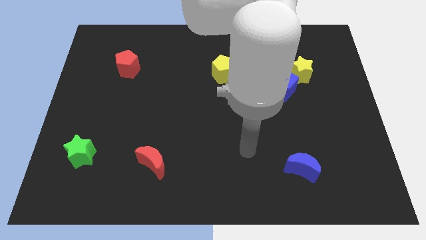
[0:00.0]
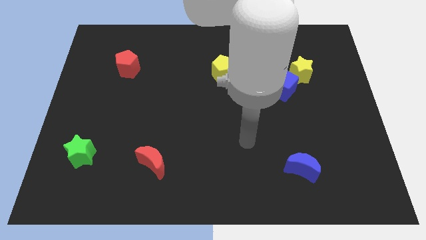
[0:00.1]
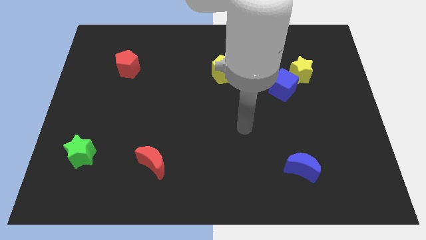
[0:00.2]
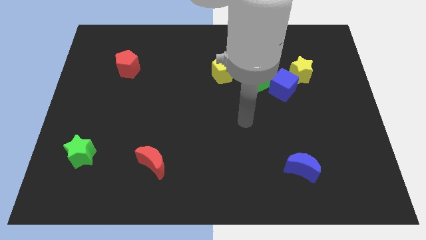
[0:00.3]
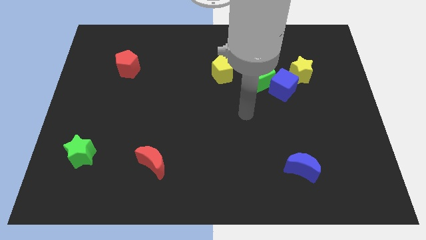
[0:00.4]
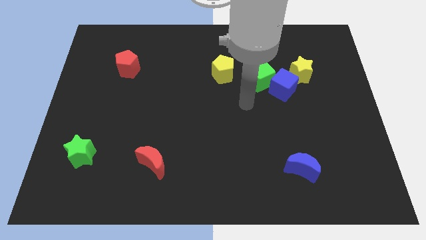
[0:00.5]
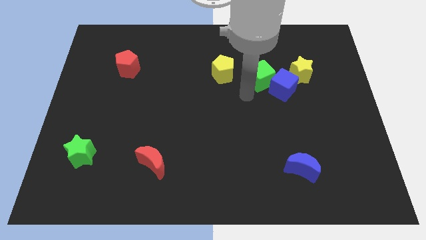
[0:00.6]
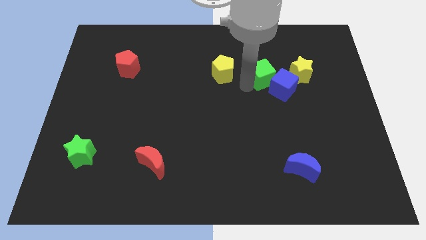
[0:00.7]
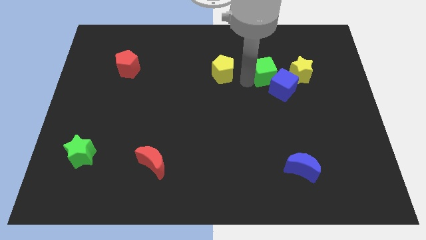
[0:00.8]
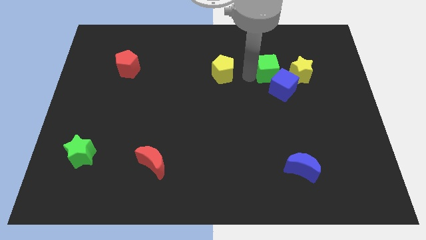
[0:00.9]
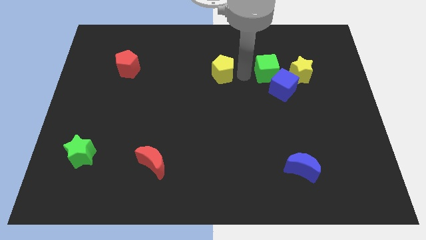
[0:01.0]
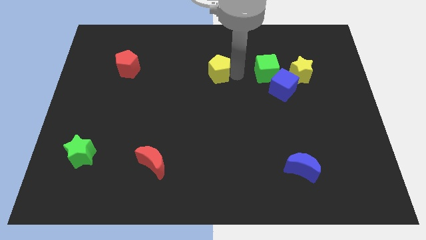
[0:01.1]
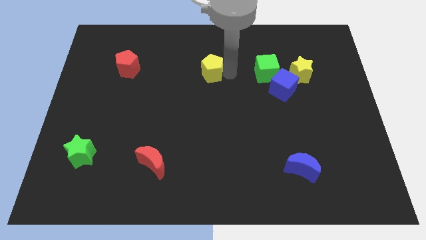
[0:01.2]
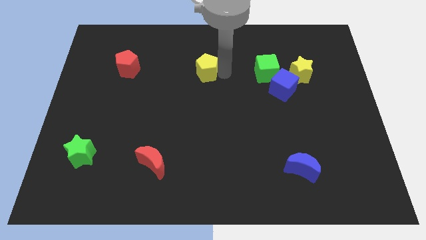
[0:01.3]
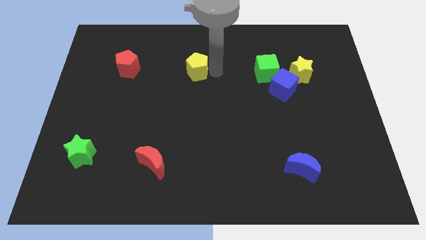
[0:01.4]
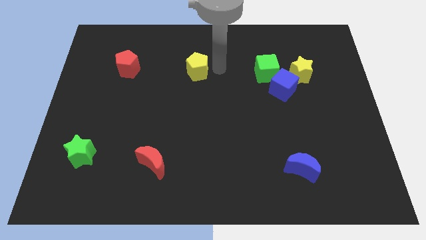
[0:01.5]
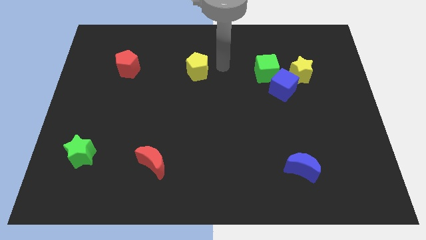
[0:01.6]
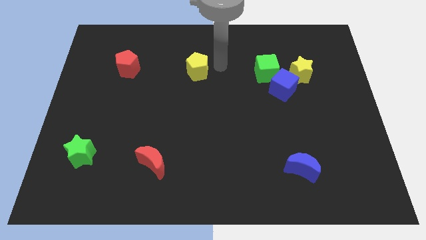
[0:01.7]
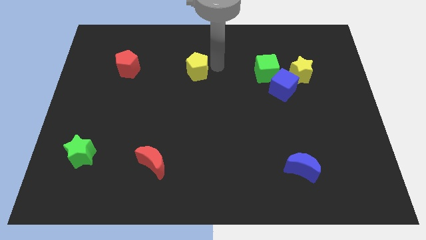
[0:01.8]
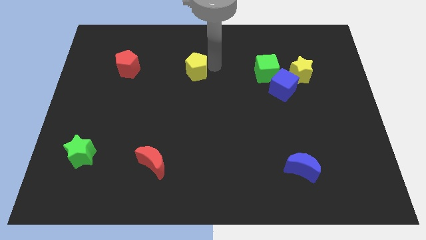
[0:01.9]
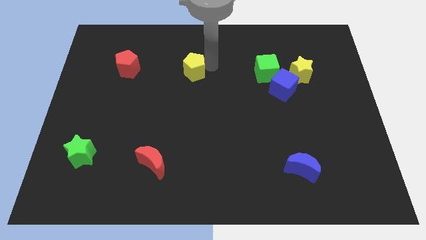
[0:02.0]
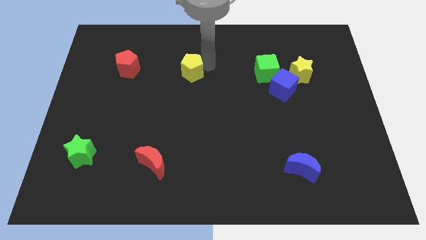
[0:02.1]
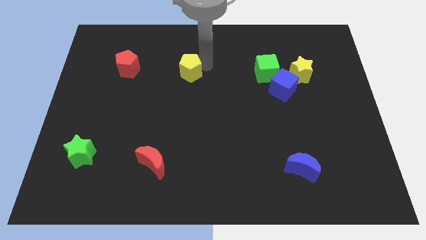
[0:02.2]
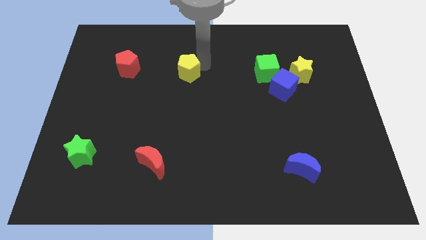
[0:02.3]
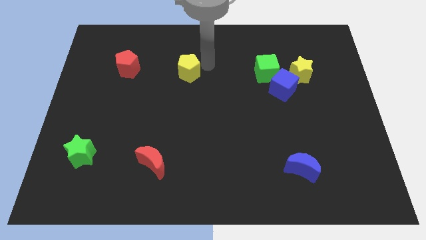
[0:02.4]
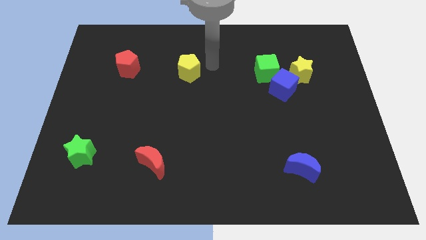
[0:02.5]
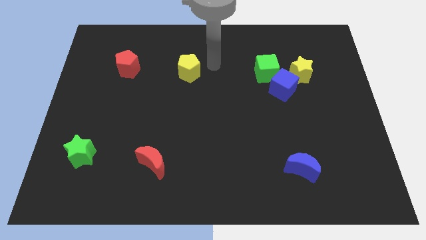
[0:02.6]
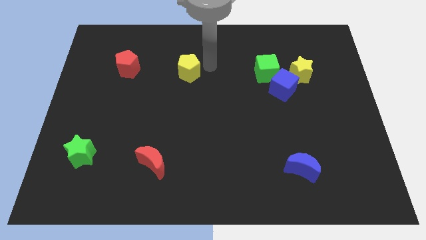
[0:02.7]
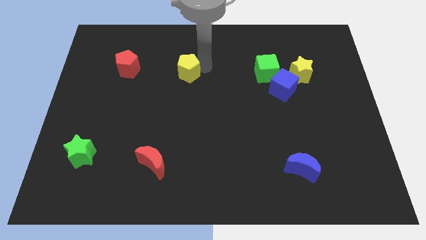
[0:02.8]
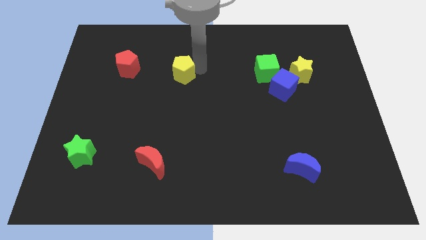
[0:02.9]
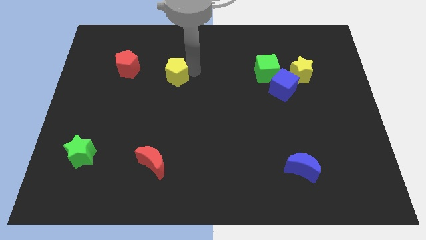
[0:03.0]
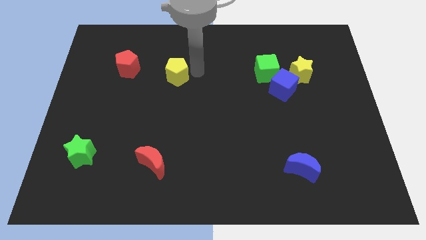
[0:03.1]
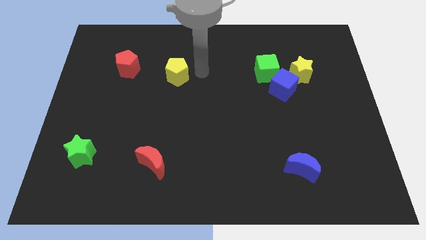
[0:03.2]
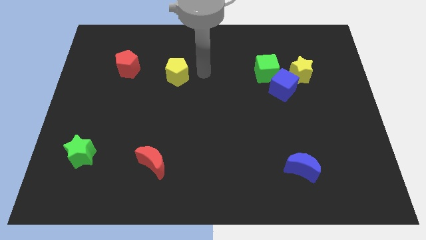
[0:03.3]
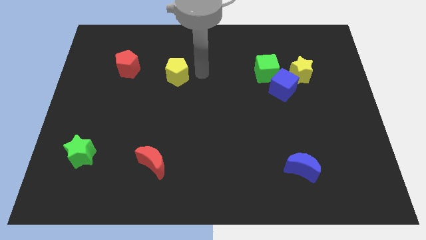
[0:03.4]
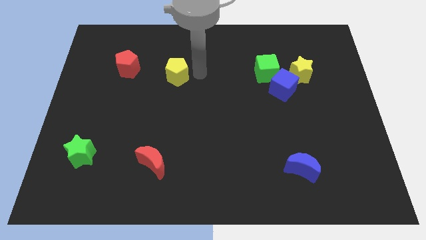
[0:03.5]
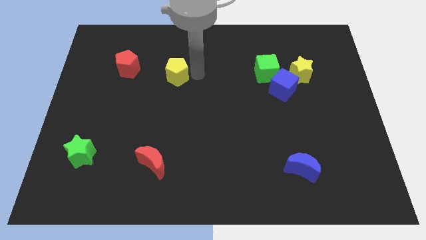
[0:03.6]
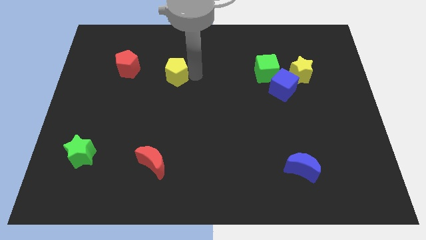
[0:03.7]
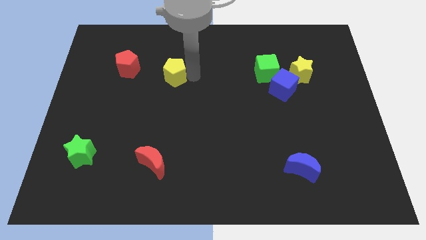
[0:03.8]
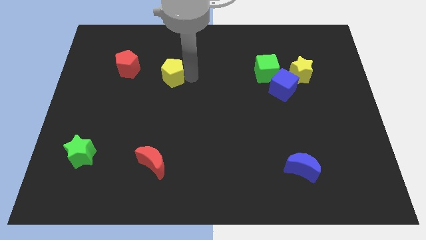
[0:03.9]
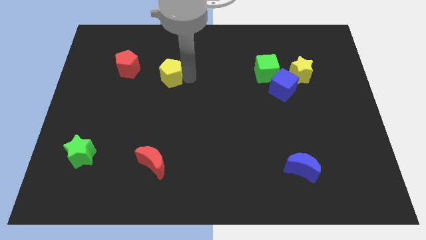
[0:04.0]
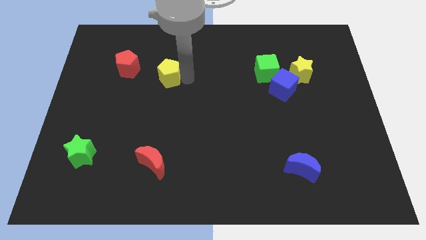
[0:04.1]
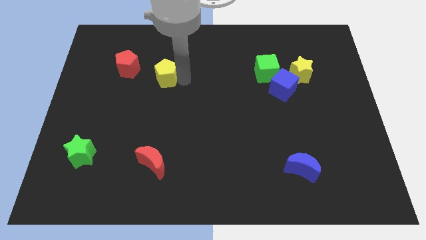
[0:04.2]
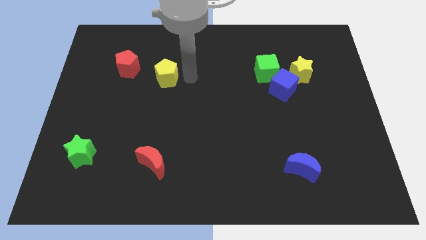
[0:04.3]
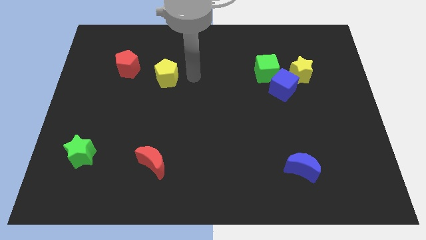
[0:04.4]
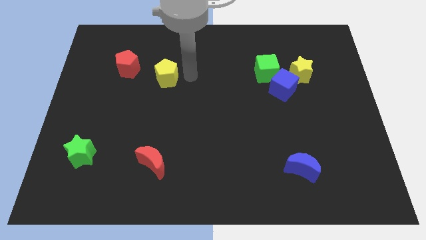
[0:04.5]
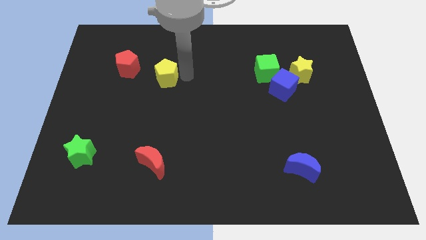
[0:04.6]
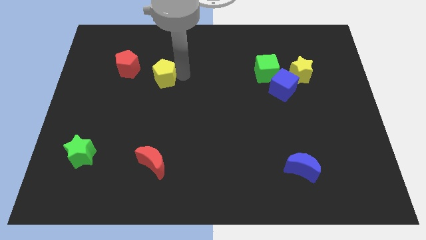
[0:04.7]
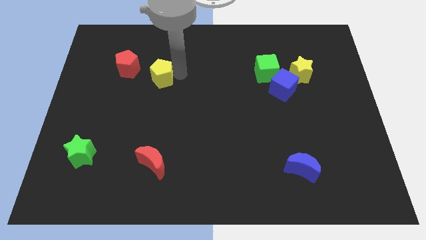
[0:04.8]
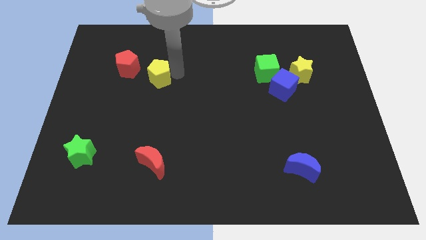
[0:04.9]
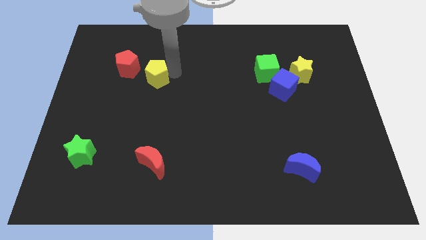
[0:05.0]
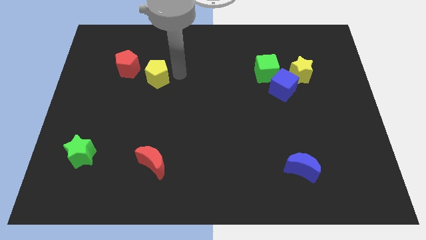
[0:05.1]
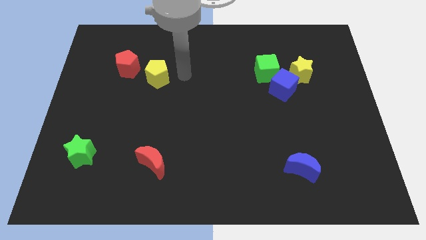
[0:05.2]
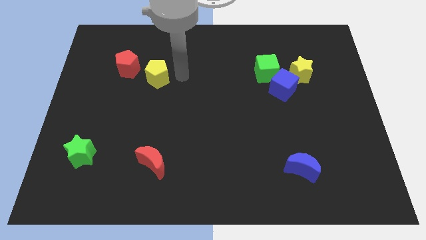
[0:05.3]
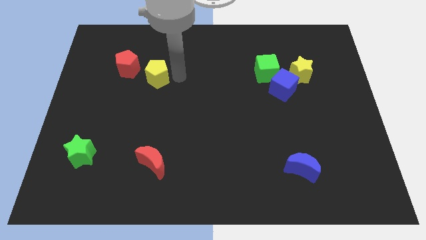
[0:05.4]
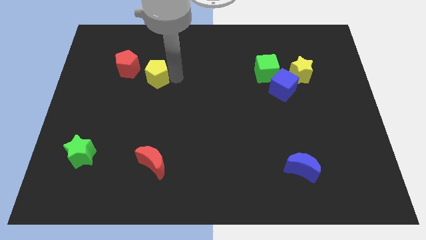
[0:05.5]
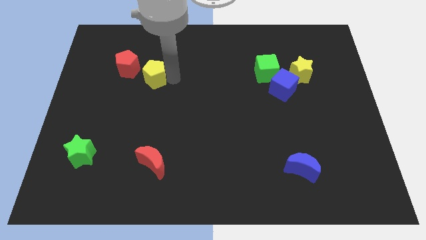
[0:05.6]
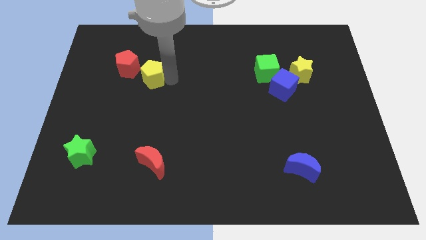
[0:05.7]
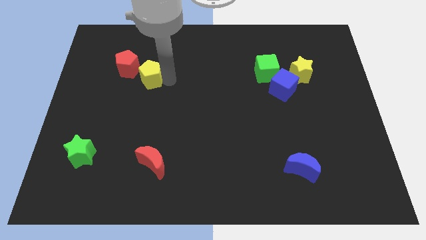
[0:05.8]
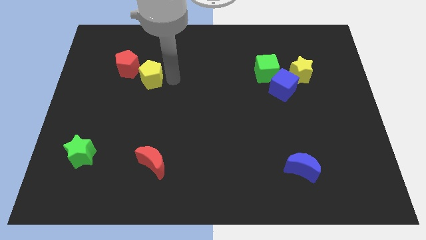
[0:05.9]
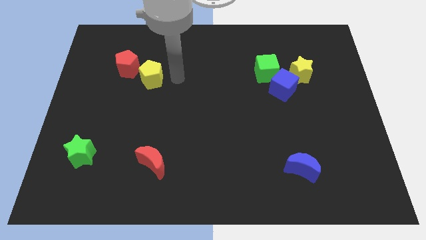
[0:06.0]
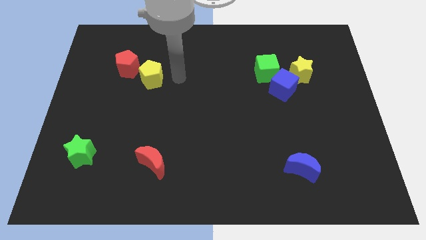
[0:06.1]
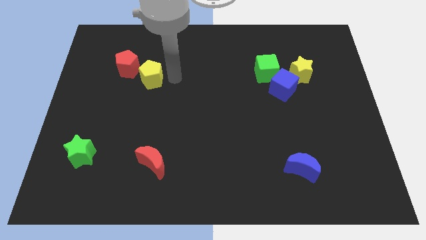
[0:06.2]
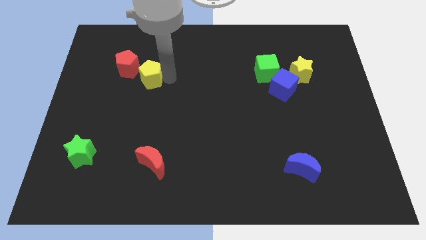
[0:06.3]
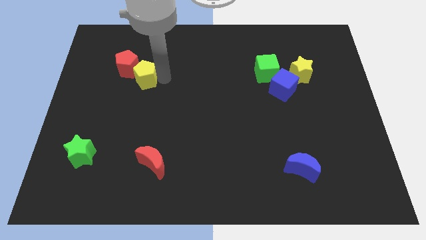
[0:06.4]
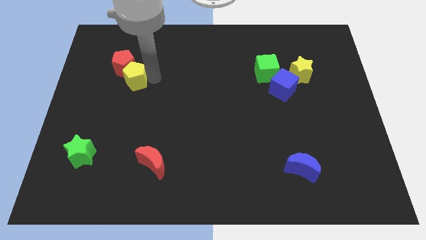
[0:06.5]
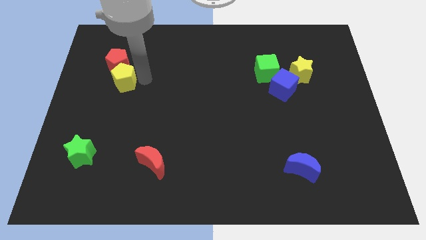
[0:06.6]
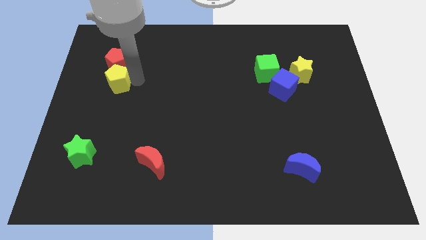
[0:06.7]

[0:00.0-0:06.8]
slide the yellow pentagon to the bottom left of the red pentagon

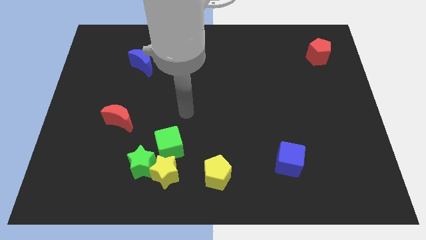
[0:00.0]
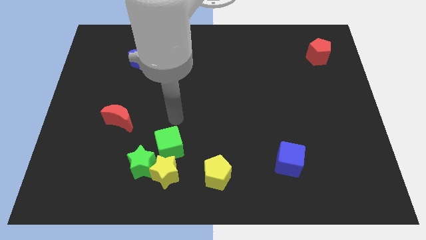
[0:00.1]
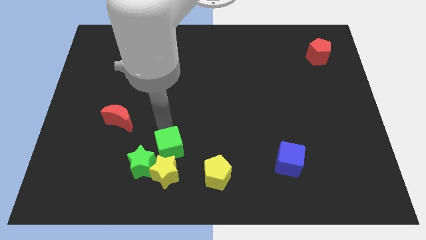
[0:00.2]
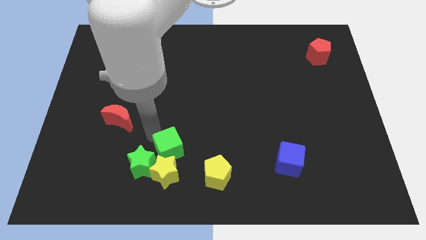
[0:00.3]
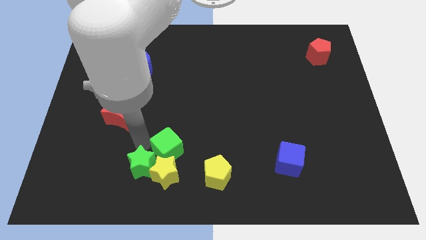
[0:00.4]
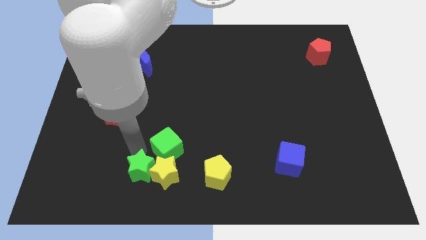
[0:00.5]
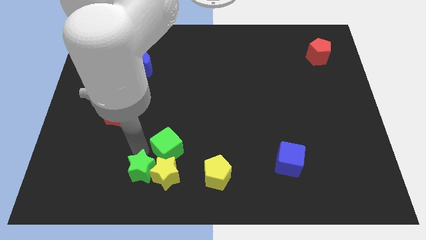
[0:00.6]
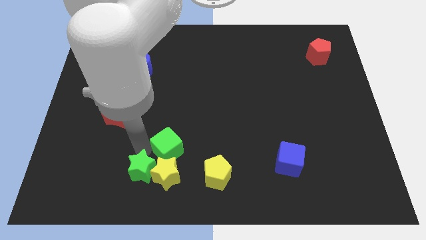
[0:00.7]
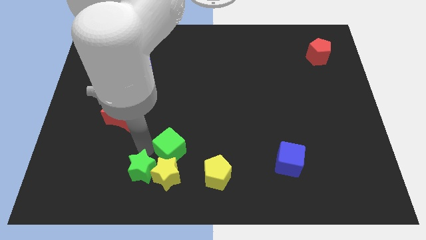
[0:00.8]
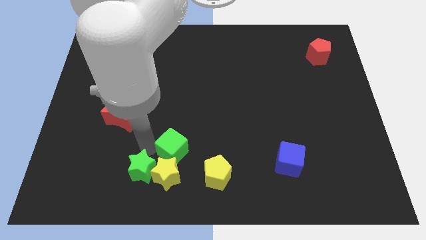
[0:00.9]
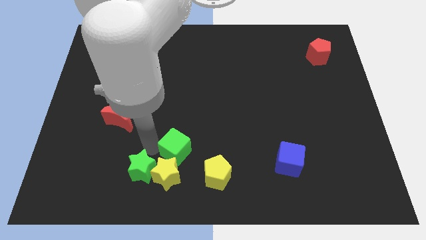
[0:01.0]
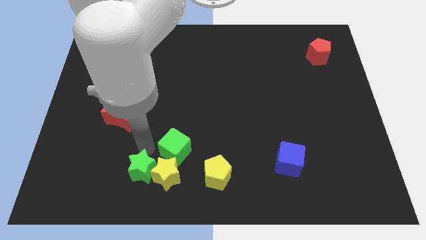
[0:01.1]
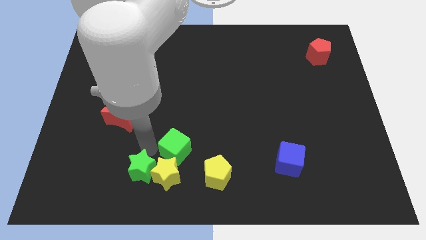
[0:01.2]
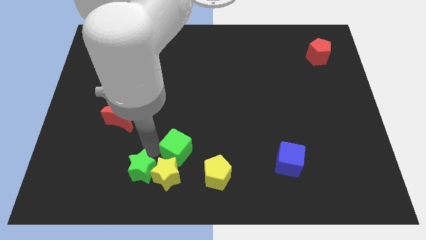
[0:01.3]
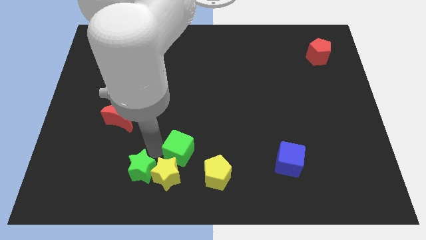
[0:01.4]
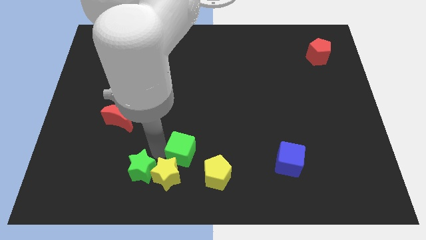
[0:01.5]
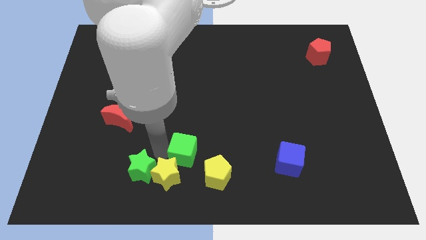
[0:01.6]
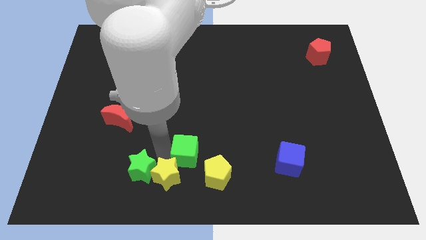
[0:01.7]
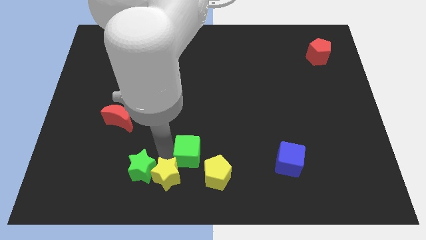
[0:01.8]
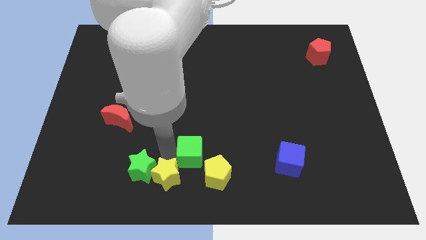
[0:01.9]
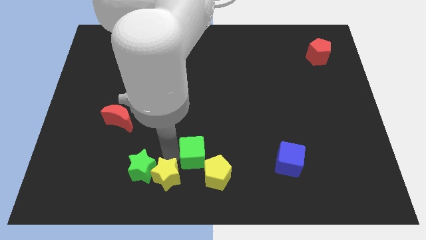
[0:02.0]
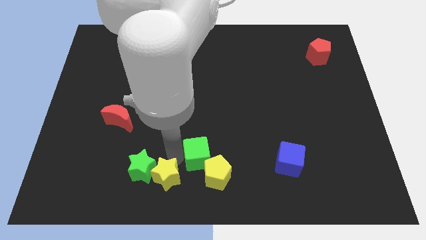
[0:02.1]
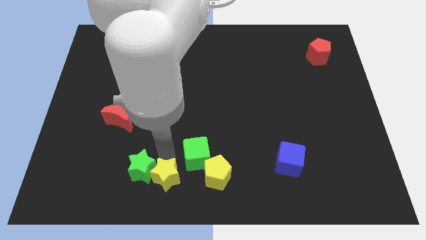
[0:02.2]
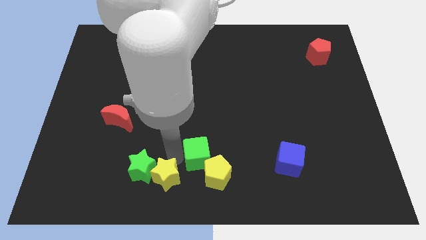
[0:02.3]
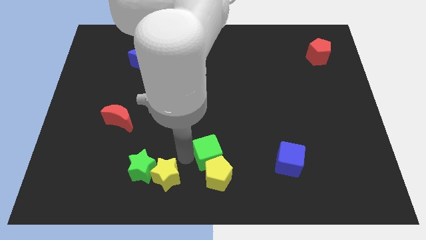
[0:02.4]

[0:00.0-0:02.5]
put the green cube diagonally up and to the right of the yellow pentagon
